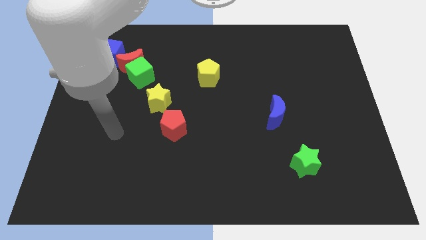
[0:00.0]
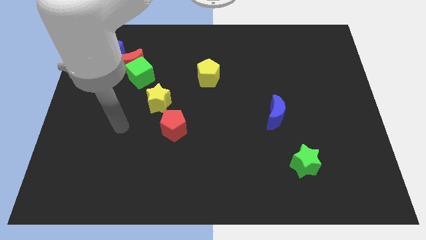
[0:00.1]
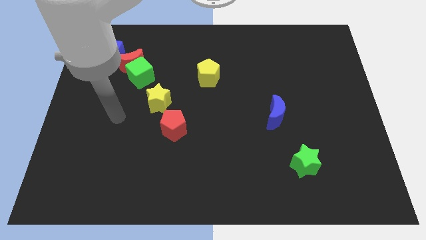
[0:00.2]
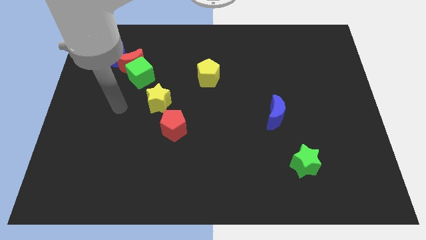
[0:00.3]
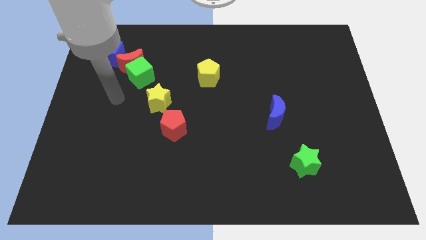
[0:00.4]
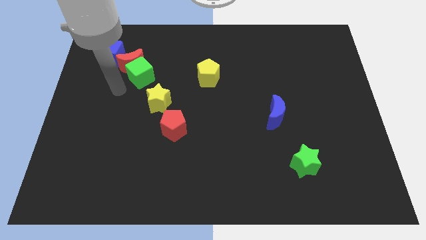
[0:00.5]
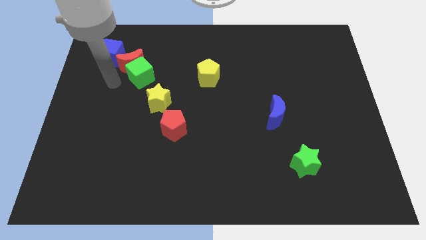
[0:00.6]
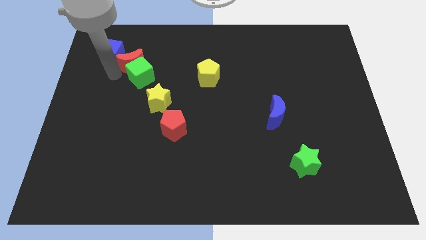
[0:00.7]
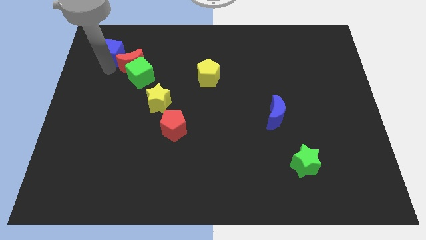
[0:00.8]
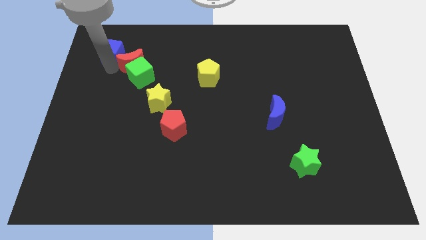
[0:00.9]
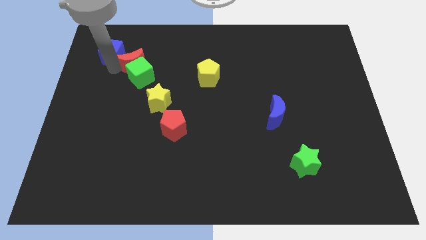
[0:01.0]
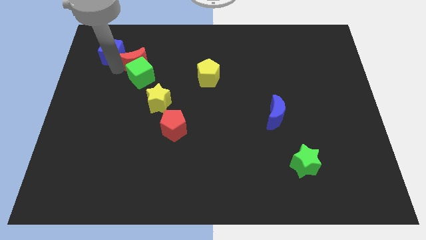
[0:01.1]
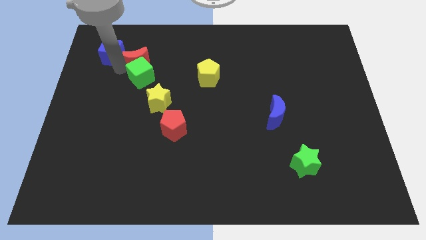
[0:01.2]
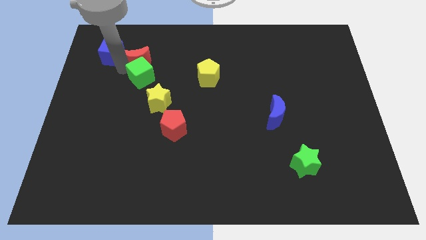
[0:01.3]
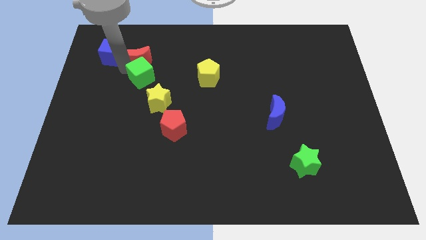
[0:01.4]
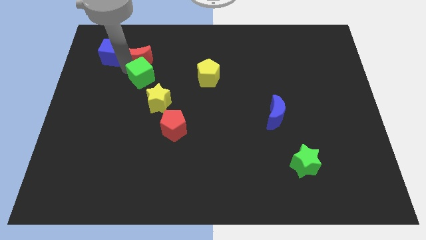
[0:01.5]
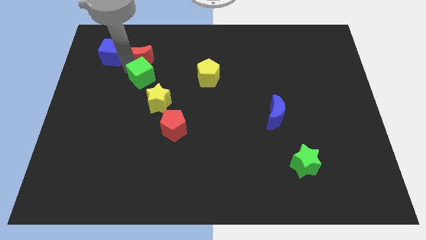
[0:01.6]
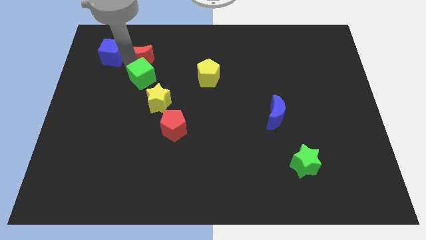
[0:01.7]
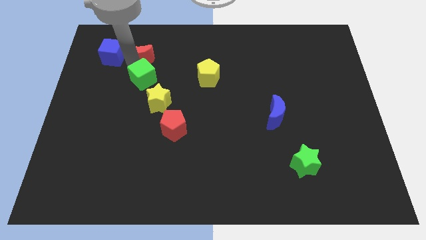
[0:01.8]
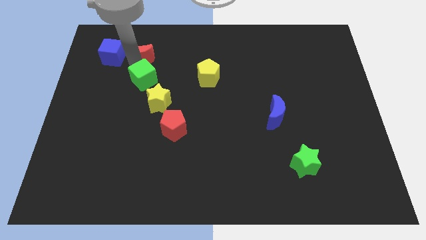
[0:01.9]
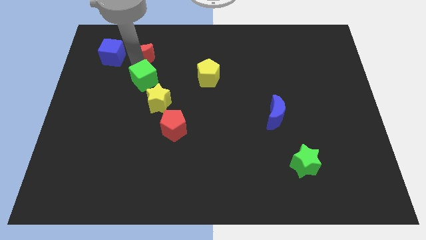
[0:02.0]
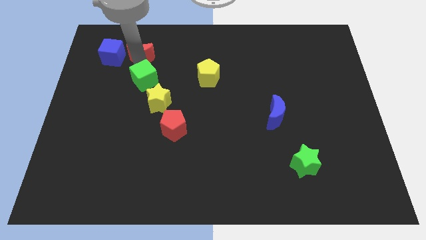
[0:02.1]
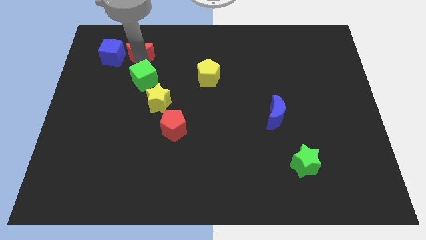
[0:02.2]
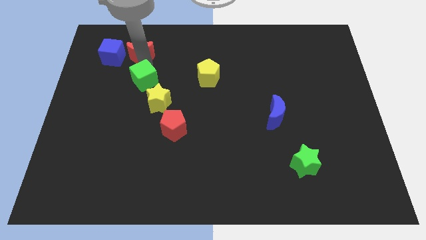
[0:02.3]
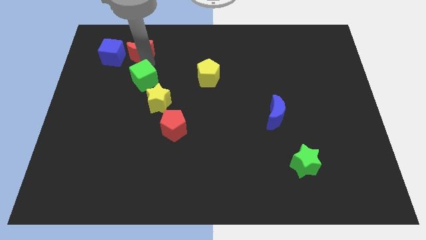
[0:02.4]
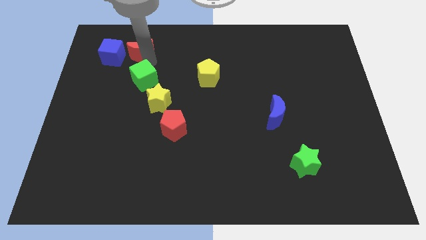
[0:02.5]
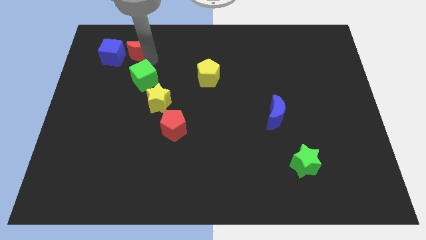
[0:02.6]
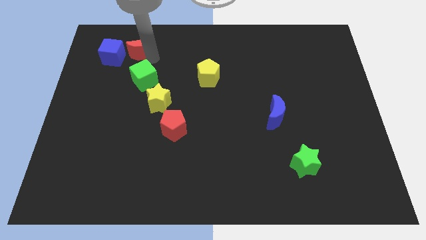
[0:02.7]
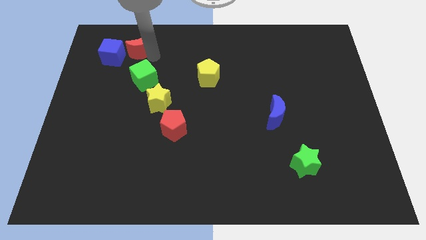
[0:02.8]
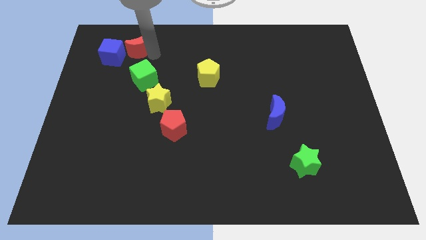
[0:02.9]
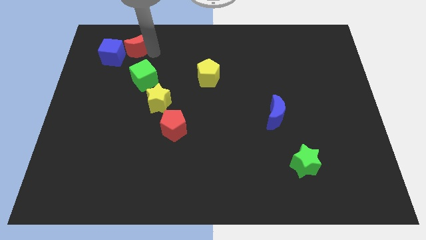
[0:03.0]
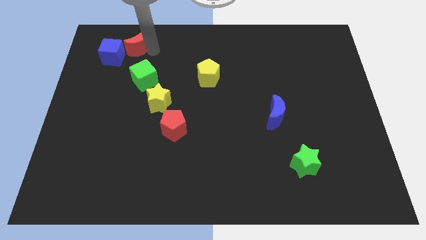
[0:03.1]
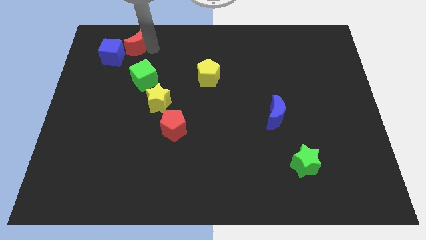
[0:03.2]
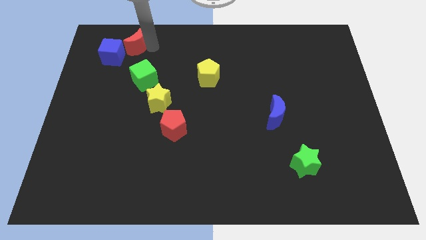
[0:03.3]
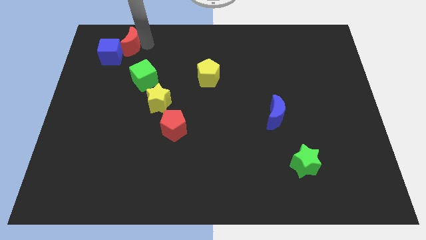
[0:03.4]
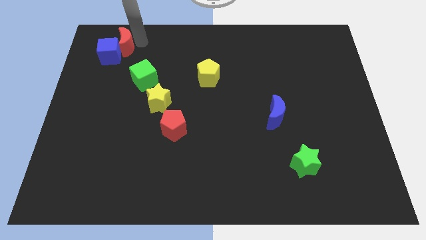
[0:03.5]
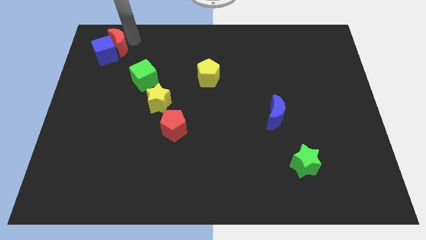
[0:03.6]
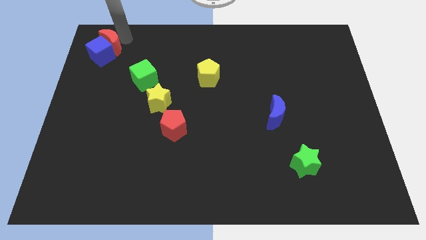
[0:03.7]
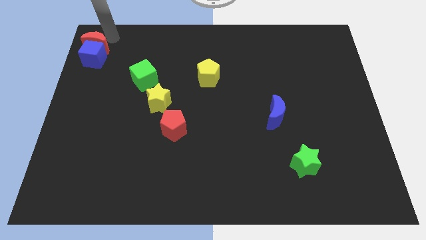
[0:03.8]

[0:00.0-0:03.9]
move the red moon away from the green cube and blue cube

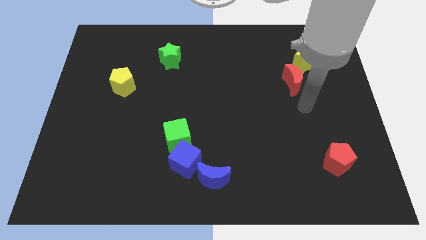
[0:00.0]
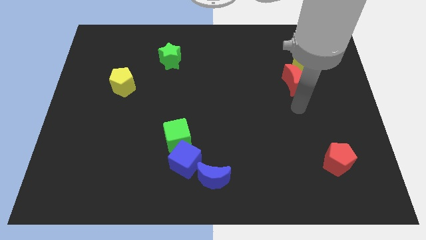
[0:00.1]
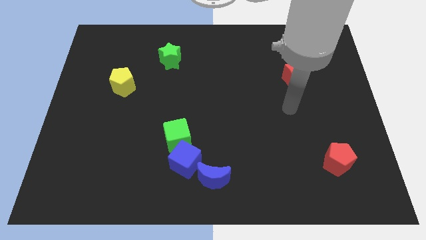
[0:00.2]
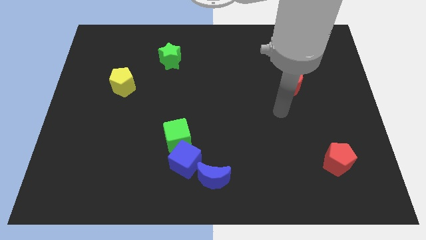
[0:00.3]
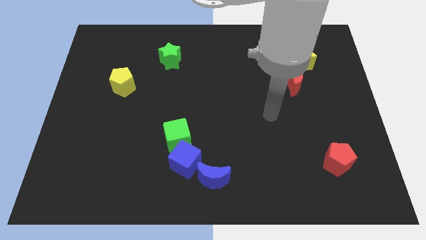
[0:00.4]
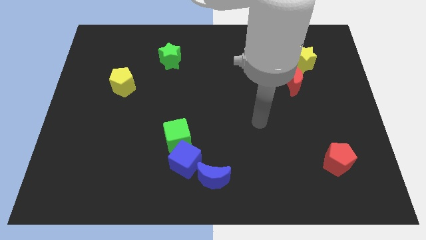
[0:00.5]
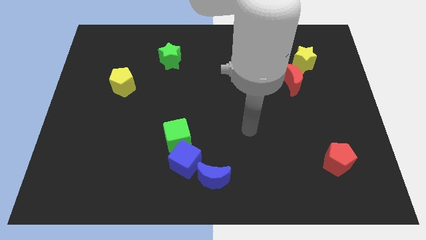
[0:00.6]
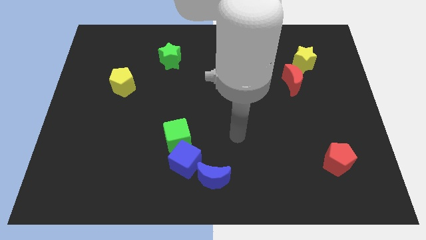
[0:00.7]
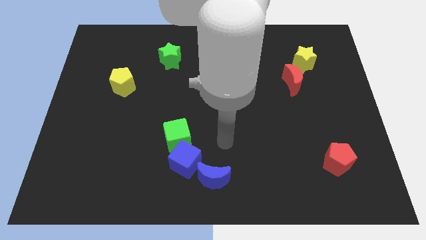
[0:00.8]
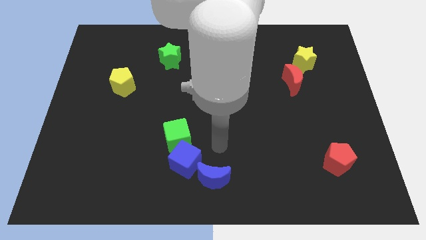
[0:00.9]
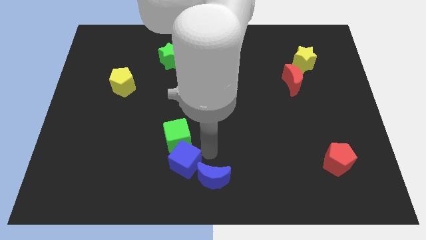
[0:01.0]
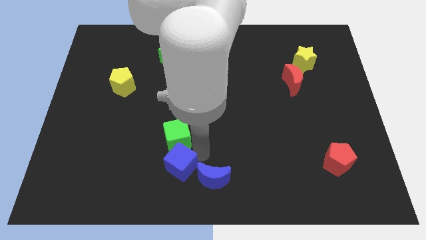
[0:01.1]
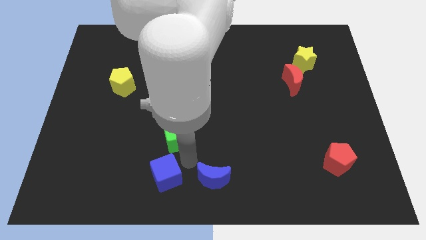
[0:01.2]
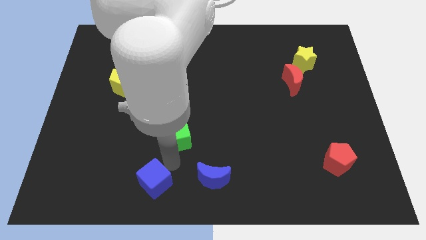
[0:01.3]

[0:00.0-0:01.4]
separate the green cube from the blue cube

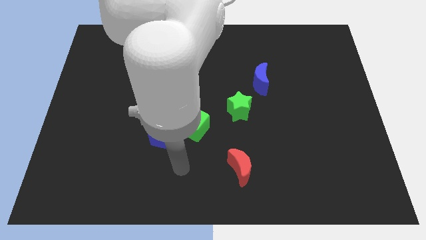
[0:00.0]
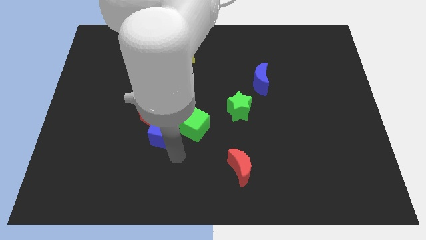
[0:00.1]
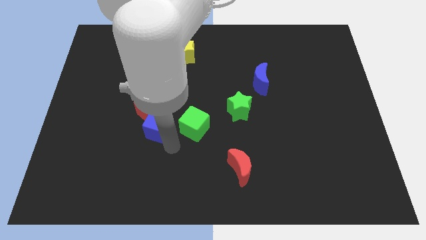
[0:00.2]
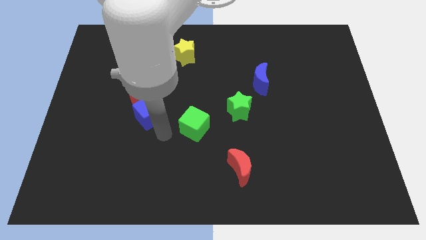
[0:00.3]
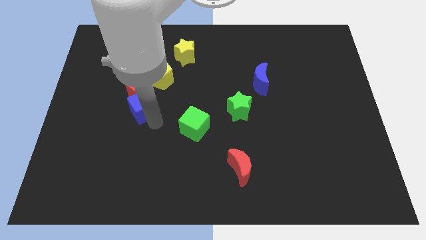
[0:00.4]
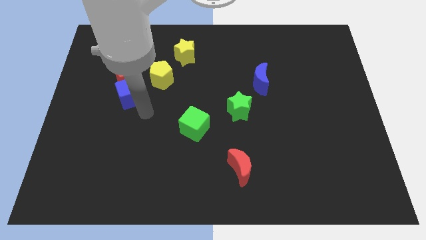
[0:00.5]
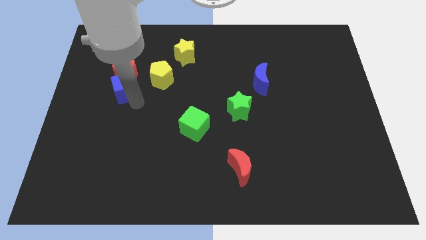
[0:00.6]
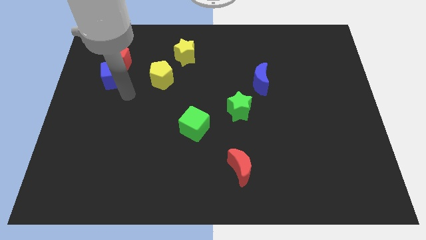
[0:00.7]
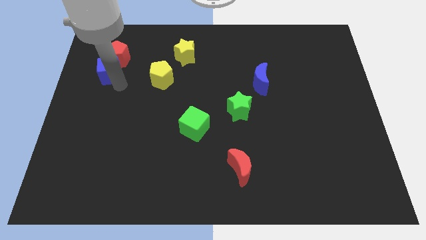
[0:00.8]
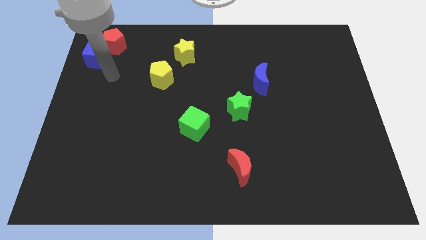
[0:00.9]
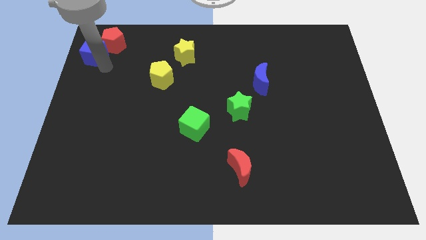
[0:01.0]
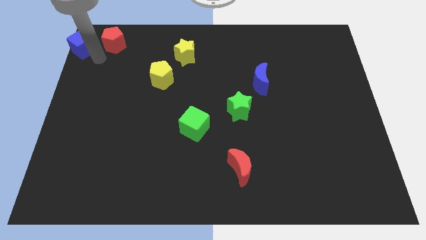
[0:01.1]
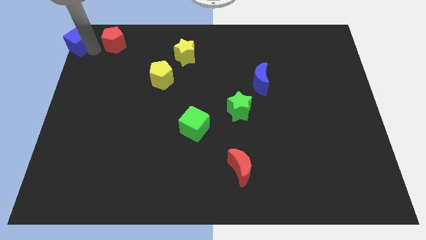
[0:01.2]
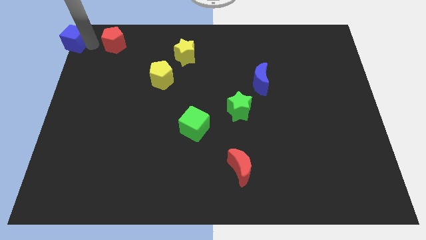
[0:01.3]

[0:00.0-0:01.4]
pull the red pentagon apart from the blue cube

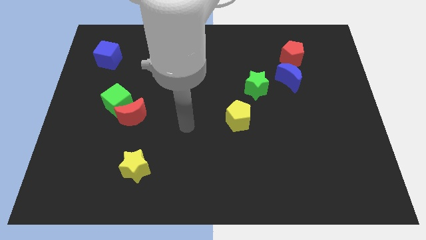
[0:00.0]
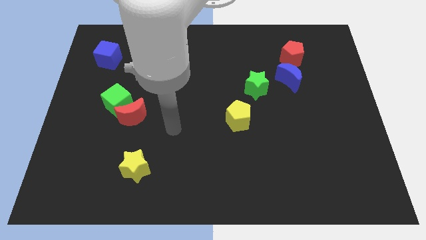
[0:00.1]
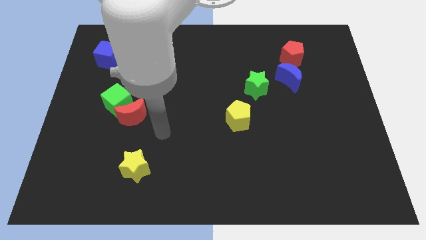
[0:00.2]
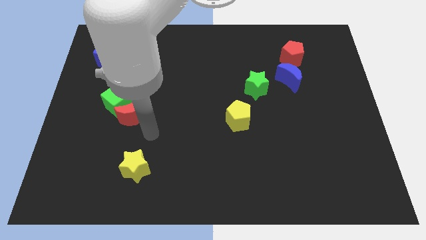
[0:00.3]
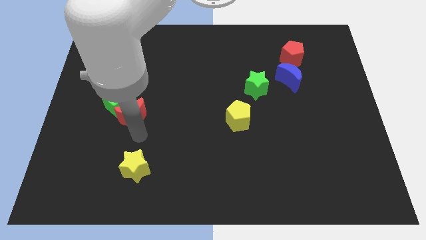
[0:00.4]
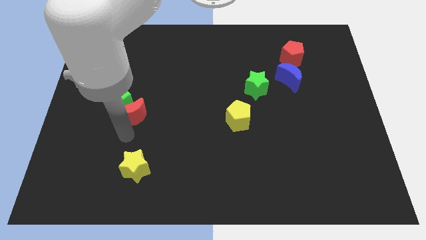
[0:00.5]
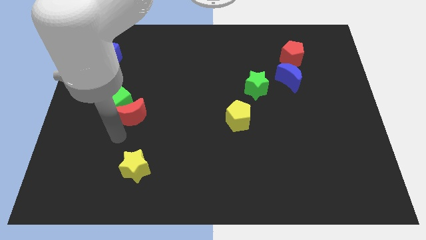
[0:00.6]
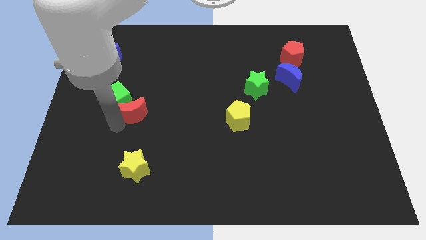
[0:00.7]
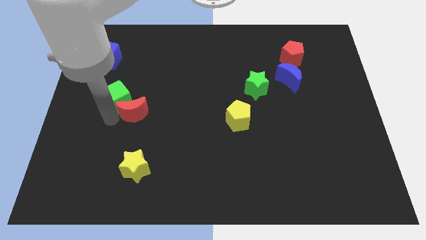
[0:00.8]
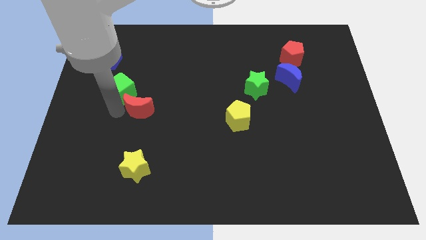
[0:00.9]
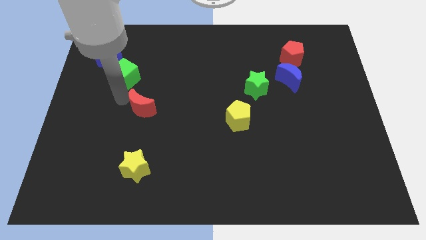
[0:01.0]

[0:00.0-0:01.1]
separate the red moon from the green cube

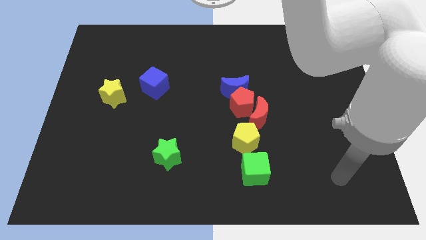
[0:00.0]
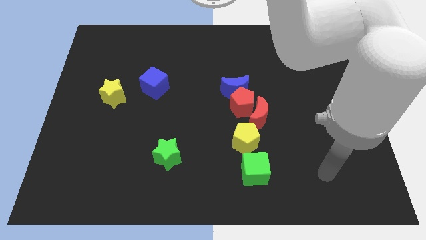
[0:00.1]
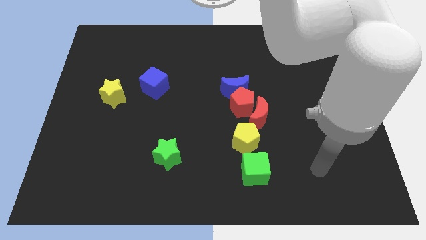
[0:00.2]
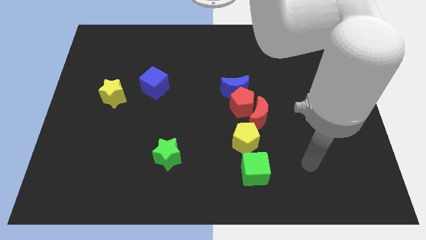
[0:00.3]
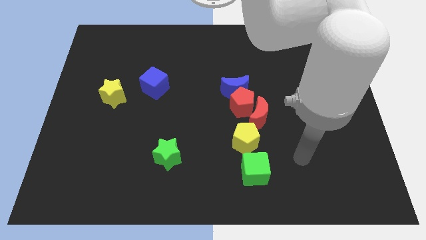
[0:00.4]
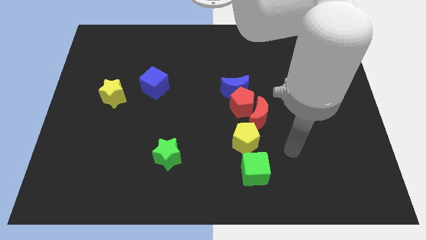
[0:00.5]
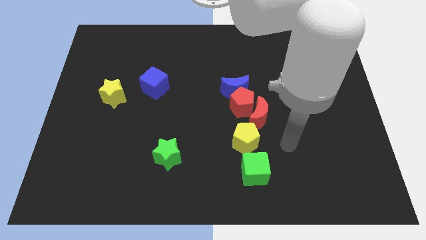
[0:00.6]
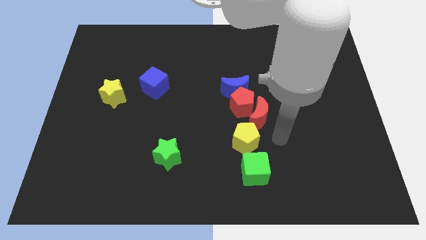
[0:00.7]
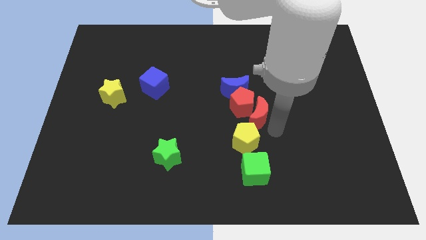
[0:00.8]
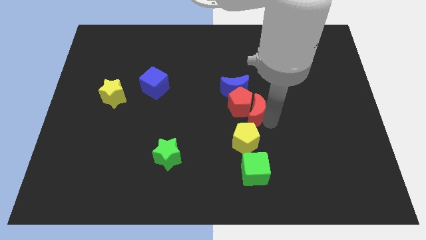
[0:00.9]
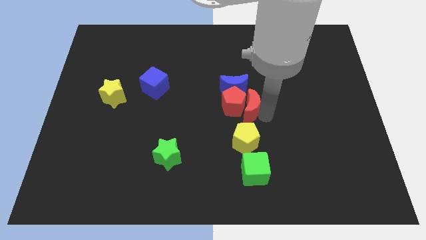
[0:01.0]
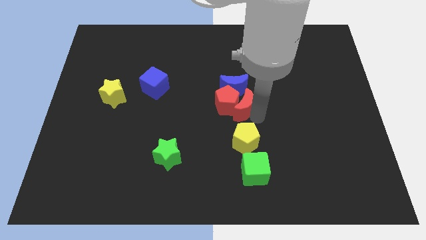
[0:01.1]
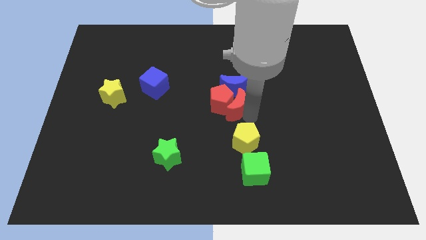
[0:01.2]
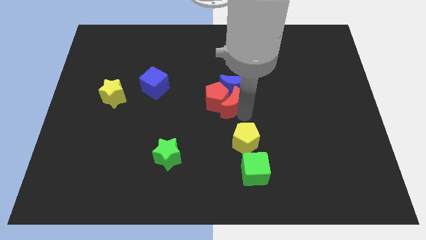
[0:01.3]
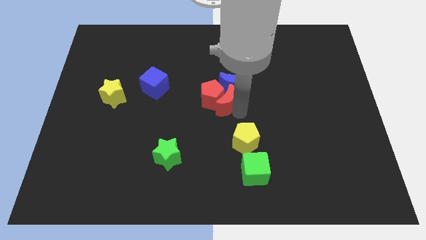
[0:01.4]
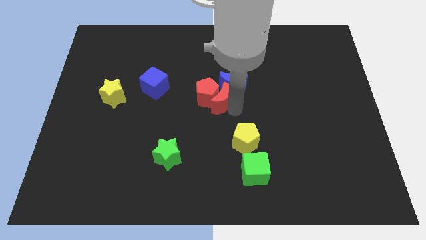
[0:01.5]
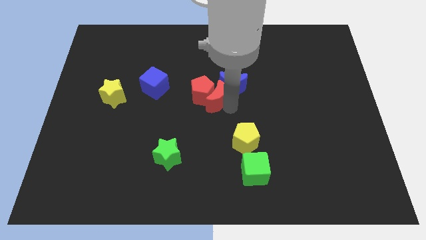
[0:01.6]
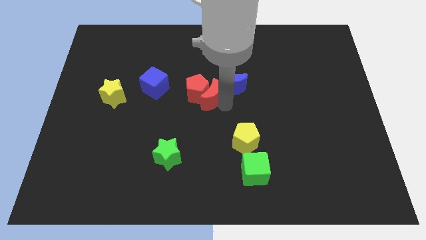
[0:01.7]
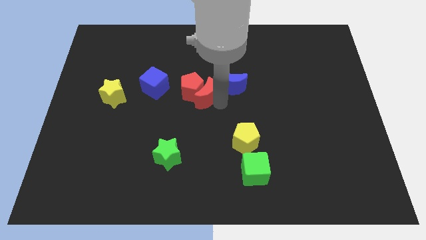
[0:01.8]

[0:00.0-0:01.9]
pull the red pentagon apart from the clump
